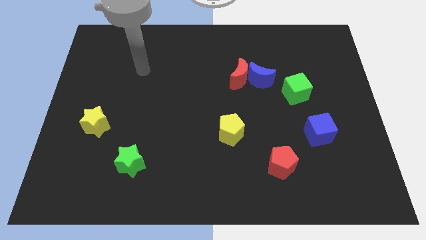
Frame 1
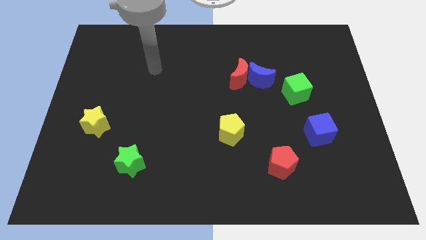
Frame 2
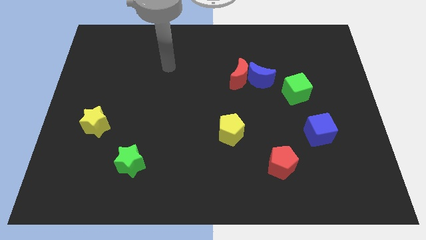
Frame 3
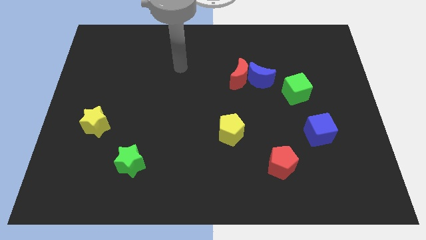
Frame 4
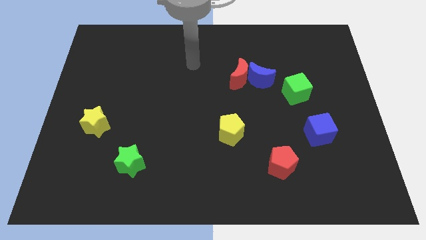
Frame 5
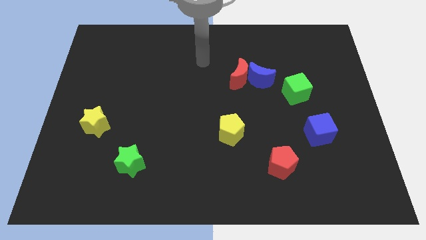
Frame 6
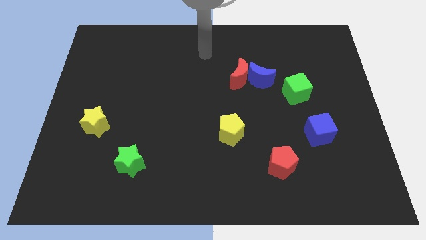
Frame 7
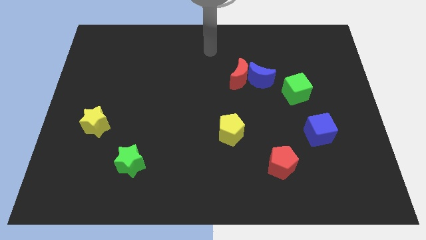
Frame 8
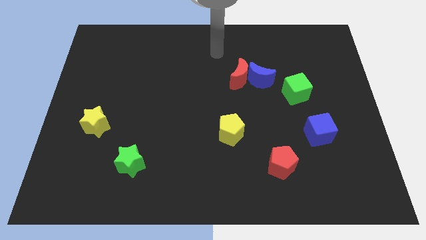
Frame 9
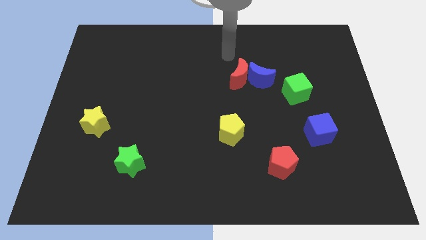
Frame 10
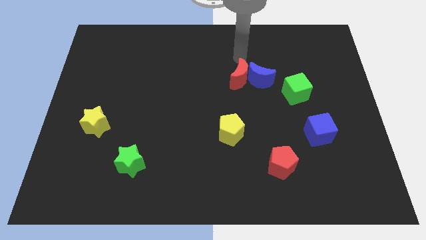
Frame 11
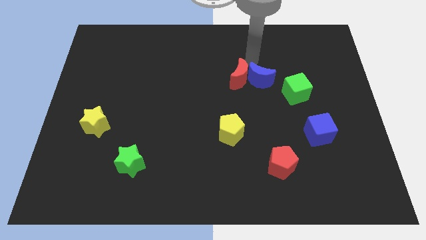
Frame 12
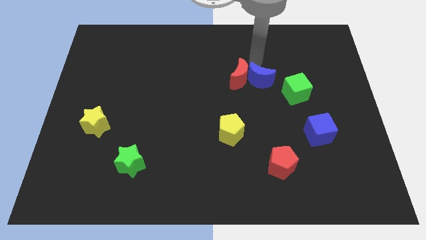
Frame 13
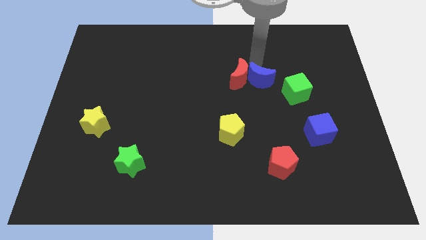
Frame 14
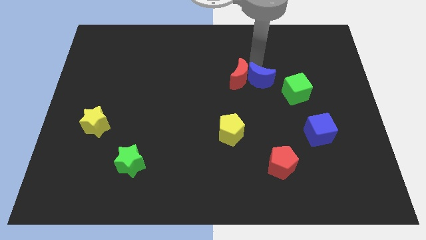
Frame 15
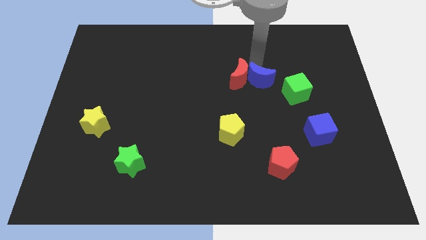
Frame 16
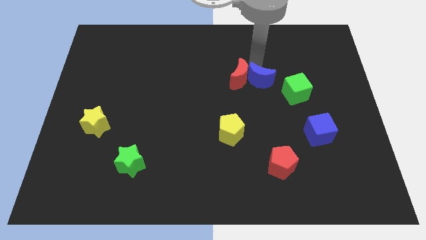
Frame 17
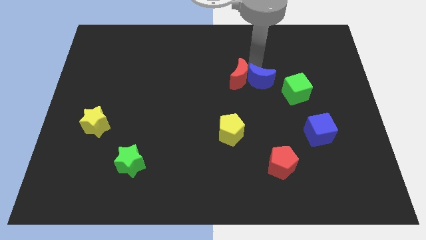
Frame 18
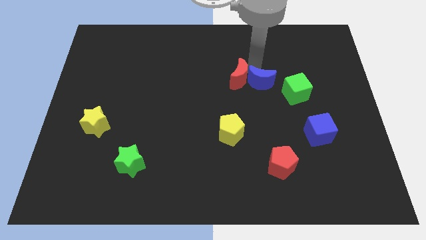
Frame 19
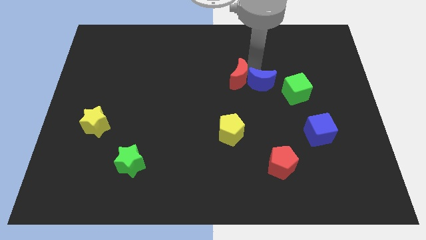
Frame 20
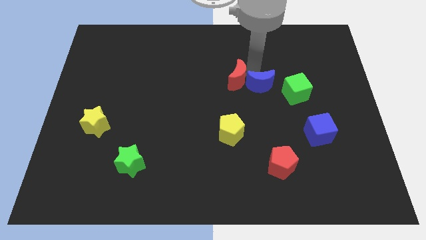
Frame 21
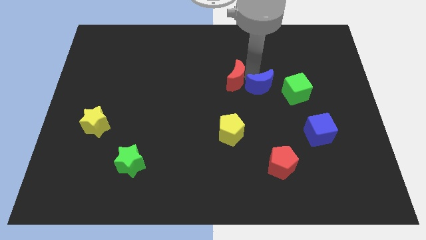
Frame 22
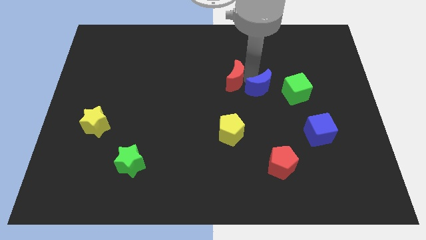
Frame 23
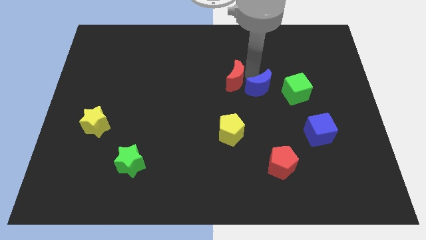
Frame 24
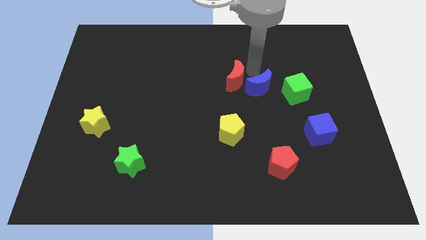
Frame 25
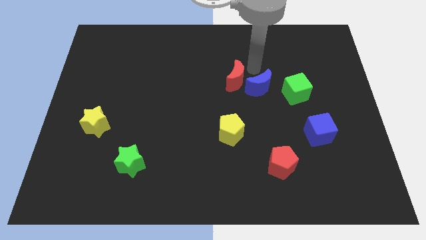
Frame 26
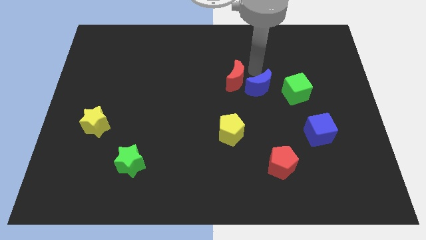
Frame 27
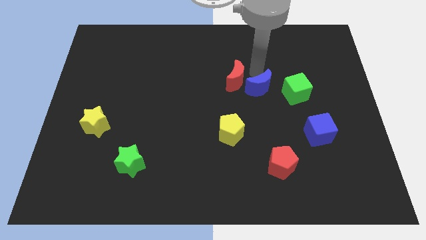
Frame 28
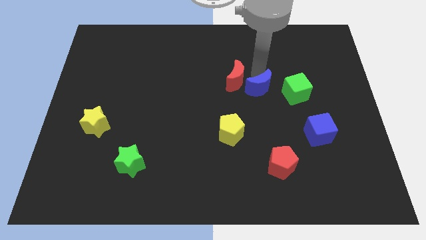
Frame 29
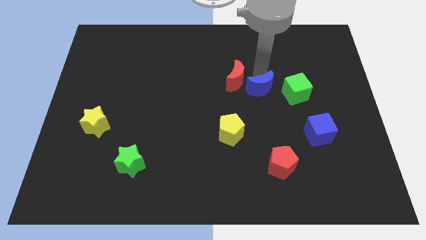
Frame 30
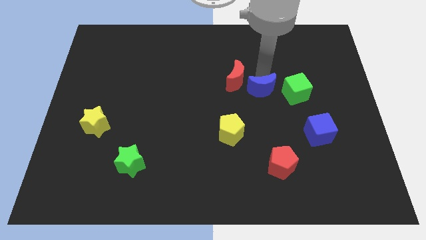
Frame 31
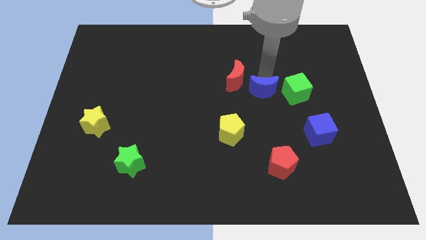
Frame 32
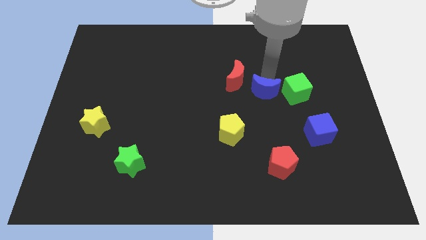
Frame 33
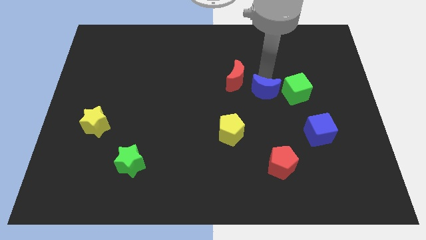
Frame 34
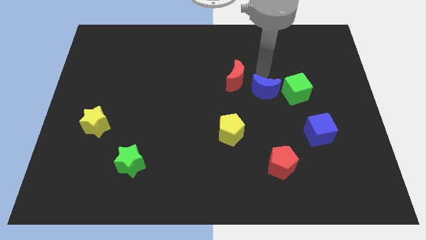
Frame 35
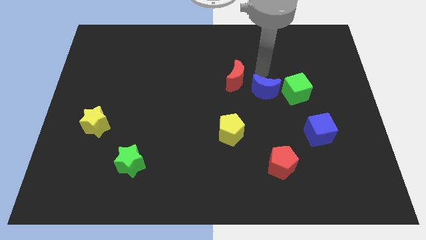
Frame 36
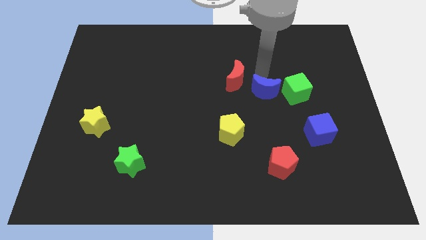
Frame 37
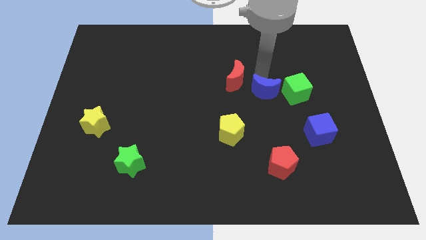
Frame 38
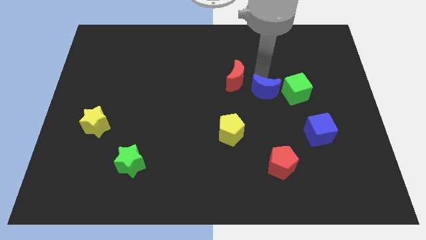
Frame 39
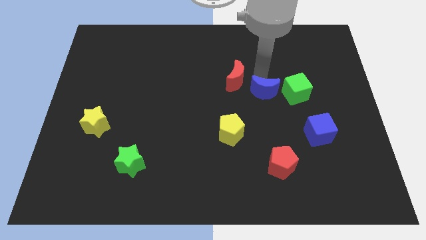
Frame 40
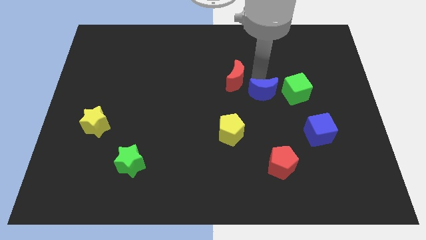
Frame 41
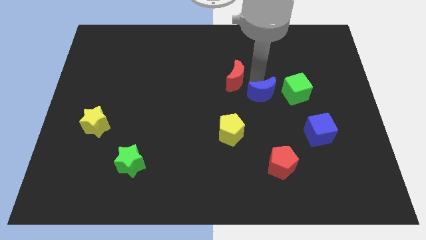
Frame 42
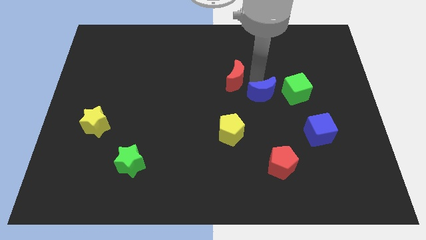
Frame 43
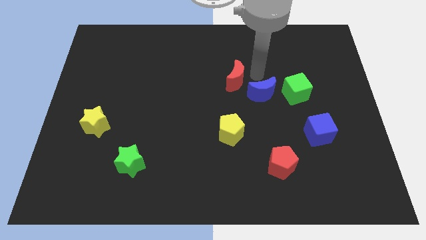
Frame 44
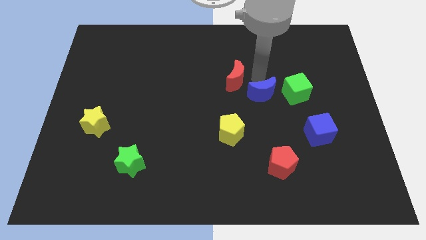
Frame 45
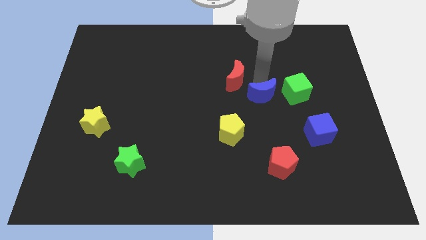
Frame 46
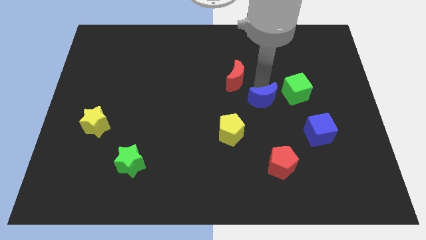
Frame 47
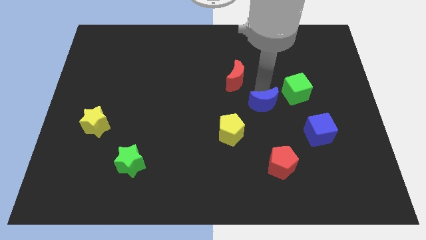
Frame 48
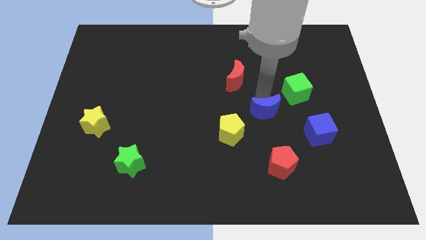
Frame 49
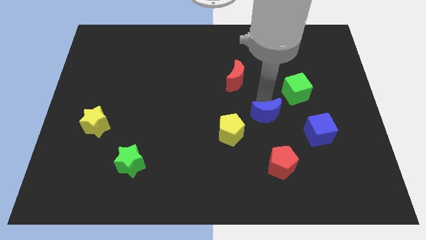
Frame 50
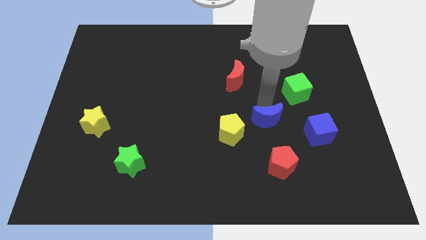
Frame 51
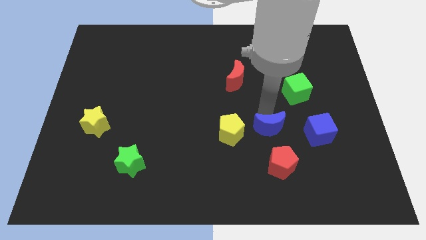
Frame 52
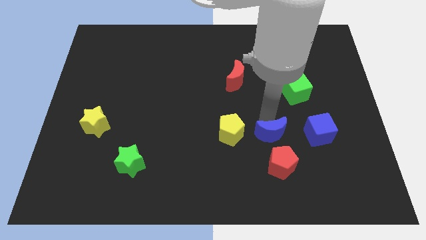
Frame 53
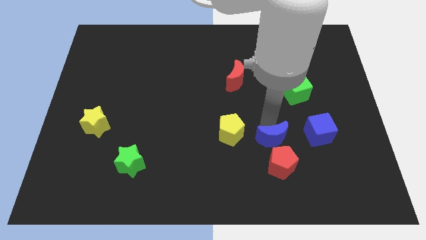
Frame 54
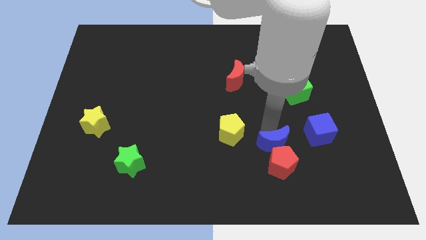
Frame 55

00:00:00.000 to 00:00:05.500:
push the blue moon to the red pentagon

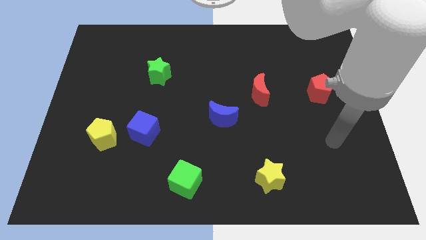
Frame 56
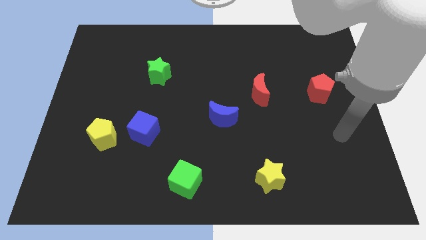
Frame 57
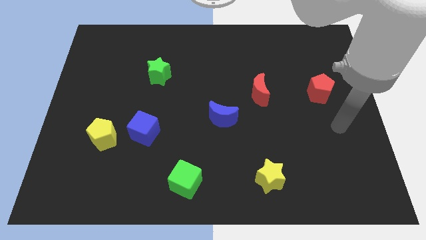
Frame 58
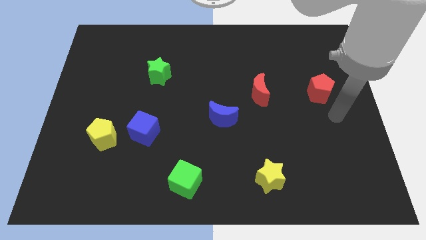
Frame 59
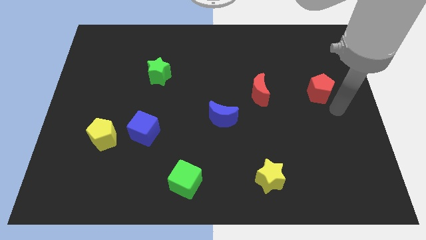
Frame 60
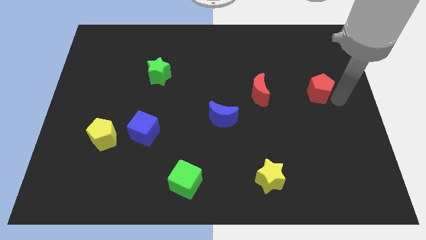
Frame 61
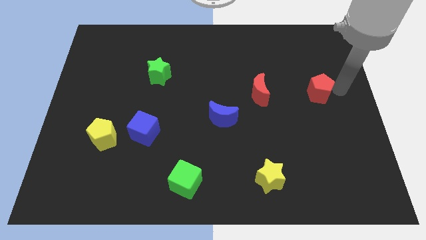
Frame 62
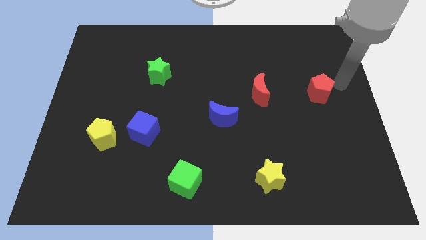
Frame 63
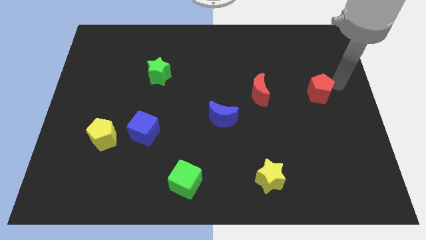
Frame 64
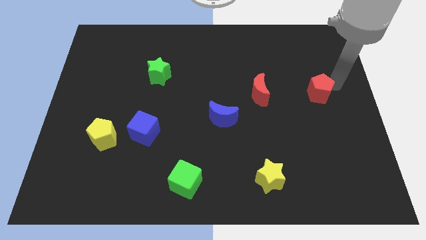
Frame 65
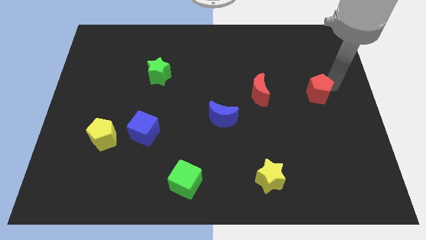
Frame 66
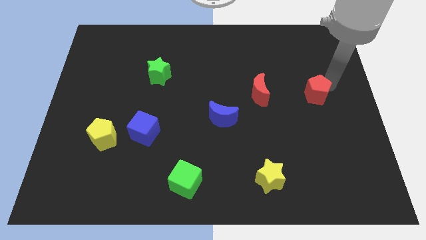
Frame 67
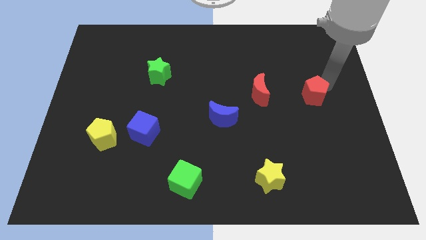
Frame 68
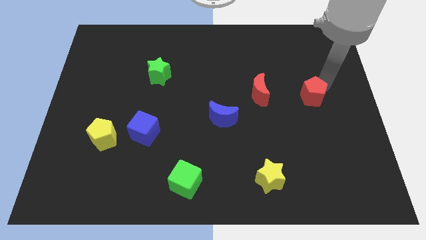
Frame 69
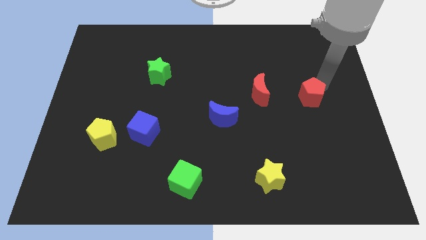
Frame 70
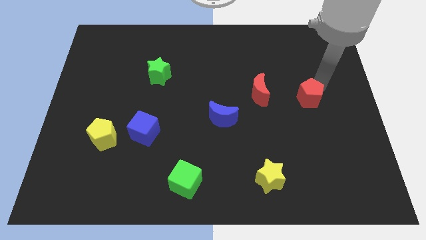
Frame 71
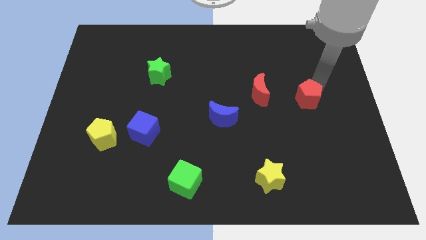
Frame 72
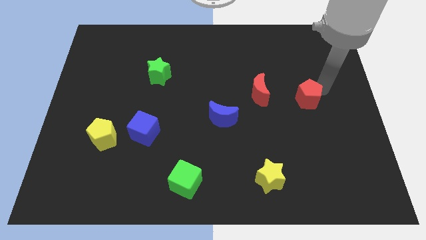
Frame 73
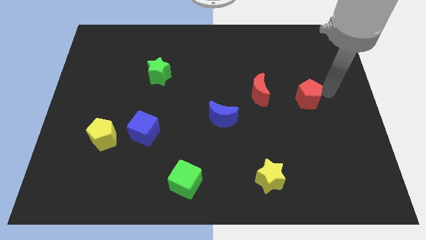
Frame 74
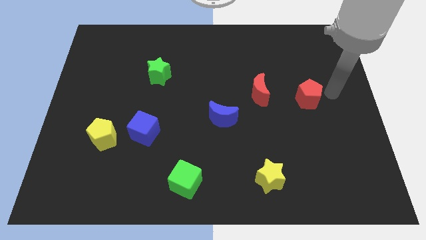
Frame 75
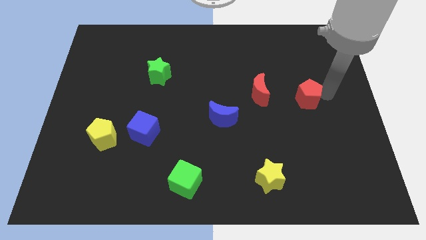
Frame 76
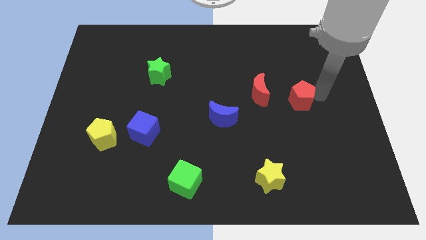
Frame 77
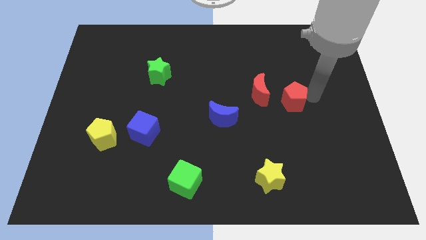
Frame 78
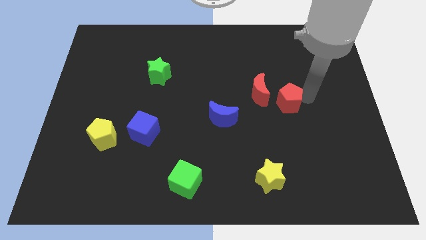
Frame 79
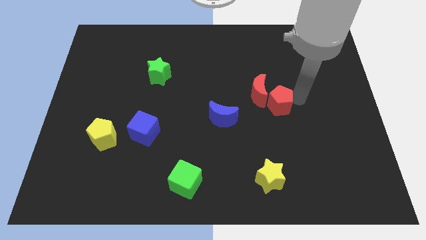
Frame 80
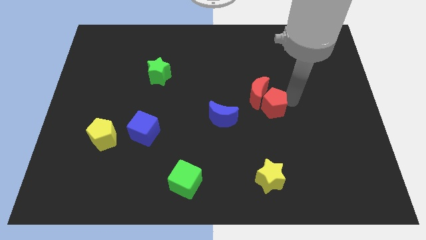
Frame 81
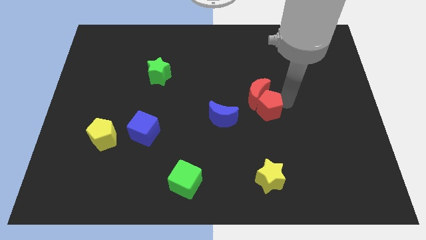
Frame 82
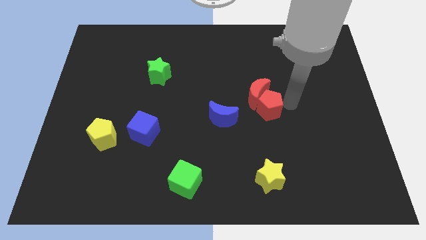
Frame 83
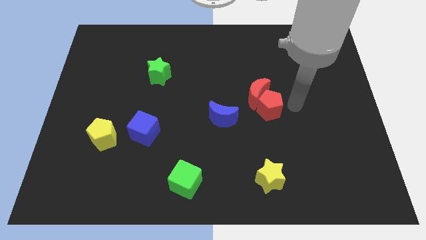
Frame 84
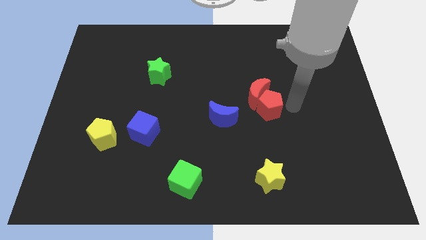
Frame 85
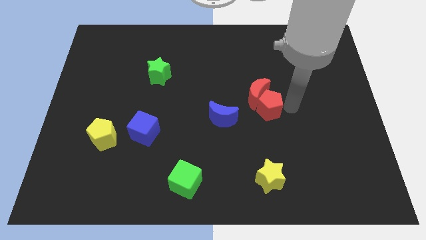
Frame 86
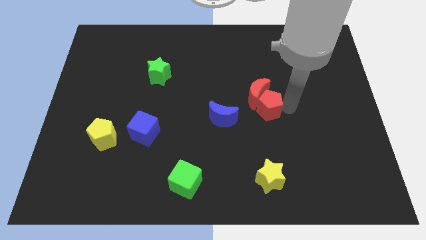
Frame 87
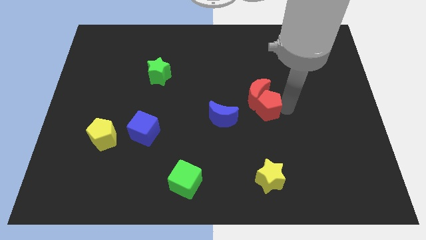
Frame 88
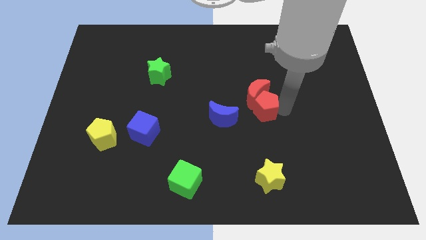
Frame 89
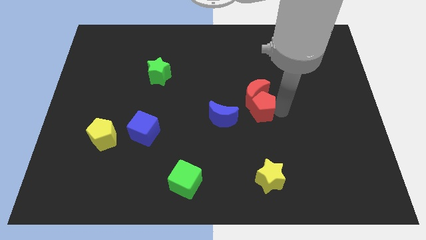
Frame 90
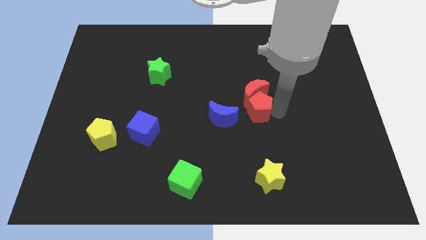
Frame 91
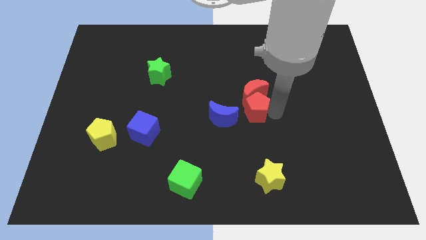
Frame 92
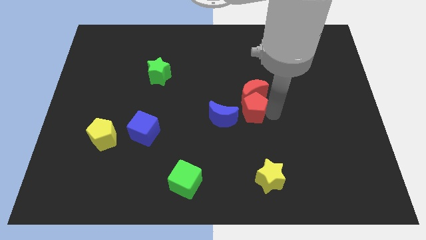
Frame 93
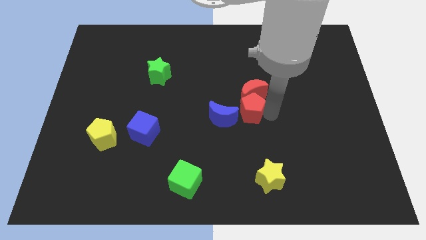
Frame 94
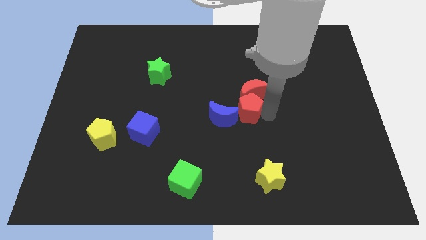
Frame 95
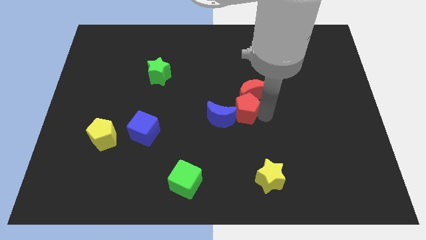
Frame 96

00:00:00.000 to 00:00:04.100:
slide the red pentagon next to the blue moon
